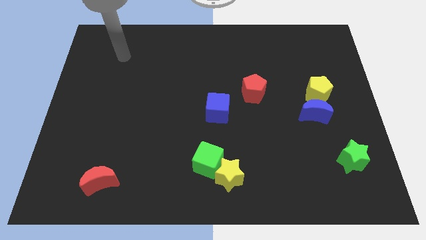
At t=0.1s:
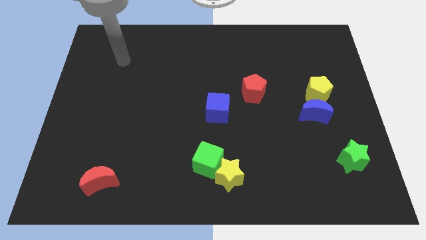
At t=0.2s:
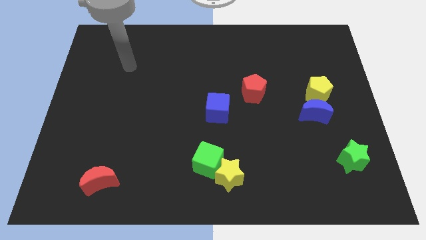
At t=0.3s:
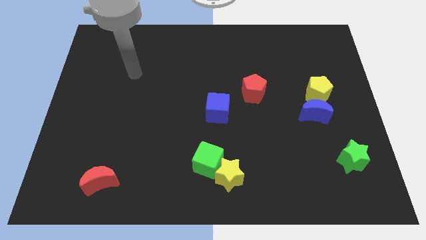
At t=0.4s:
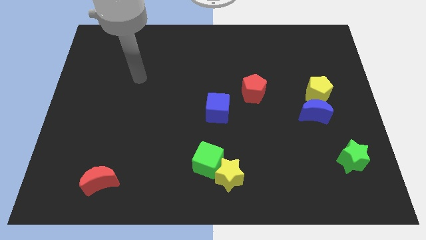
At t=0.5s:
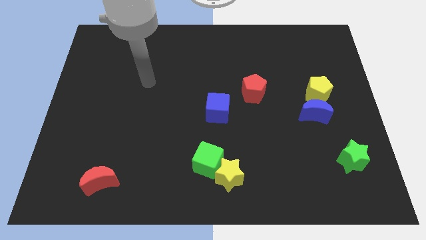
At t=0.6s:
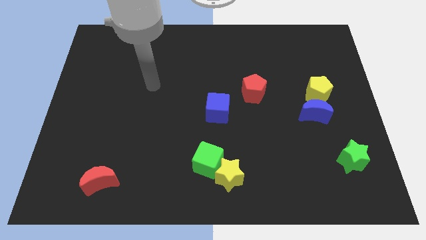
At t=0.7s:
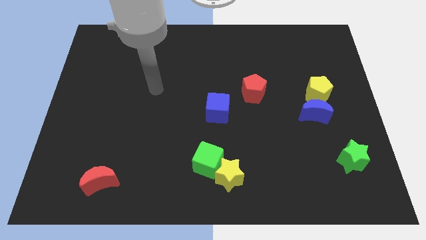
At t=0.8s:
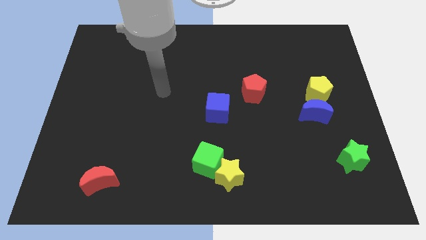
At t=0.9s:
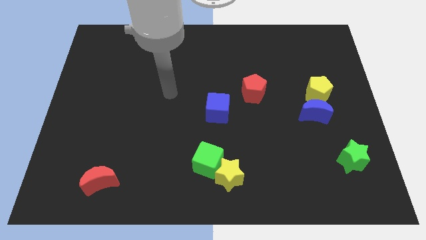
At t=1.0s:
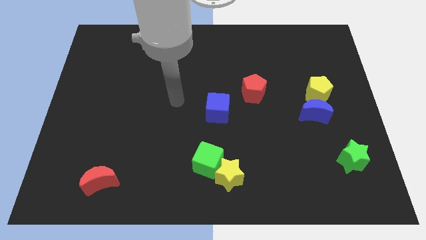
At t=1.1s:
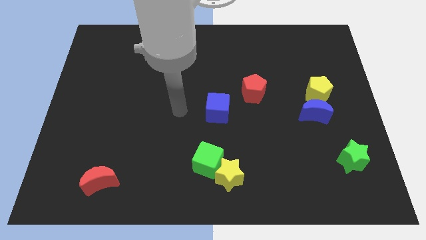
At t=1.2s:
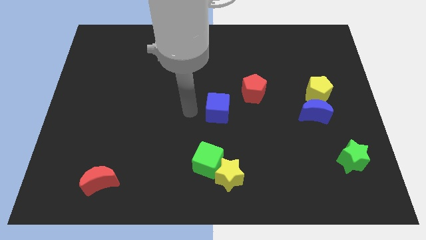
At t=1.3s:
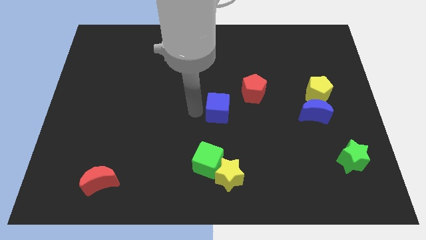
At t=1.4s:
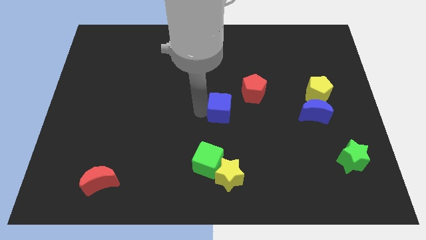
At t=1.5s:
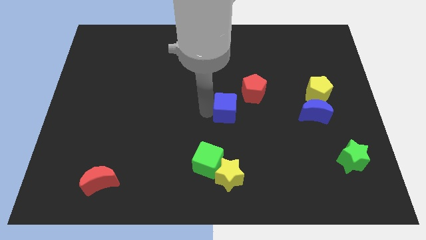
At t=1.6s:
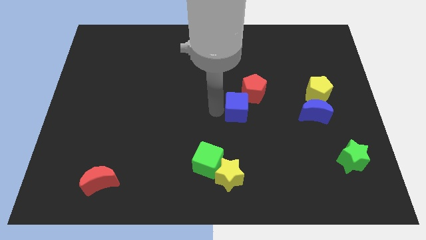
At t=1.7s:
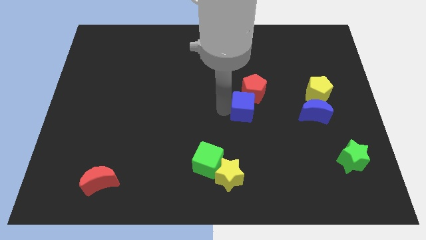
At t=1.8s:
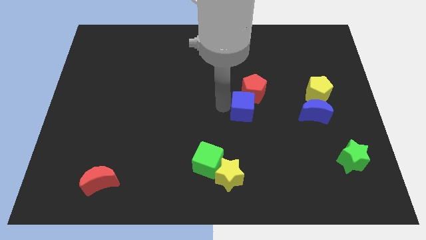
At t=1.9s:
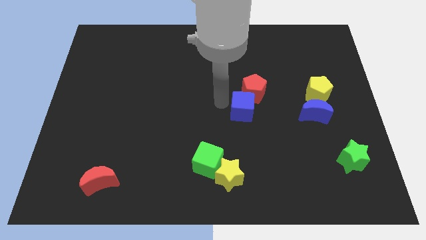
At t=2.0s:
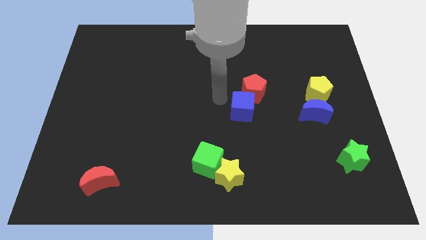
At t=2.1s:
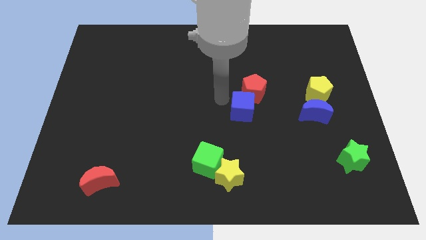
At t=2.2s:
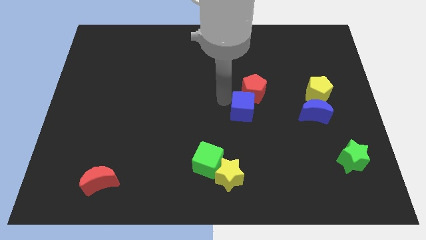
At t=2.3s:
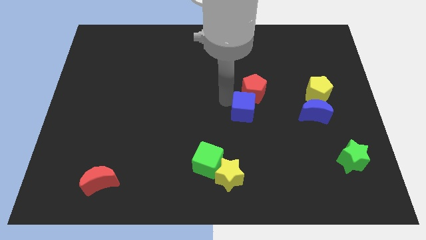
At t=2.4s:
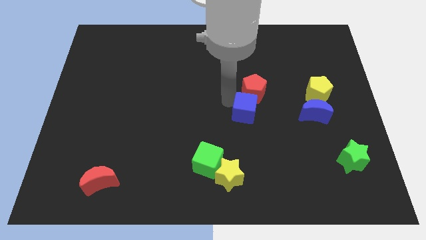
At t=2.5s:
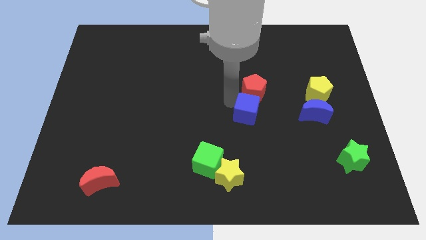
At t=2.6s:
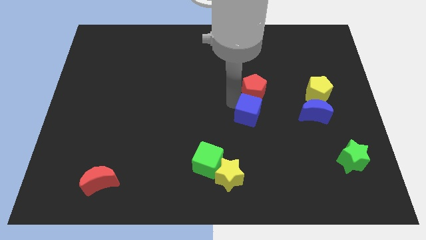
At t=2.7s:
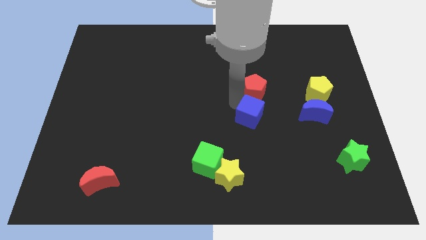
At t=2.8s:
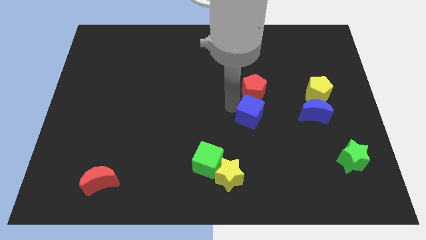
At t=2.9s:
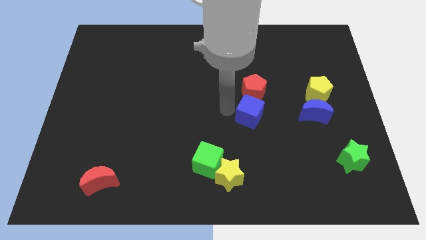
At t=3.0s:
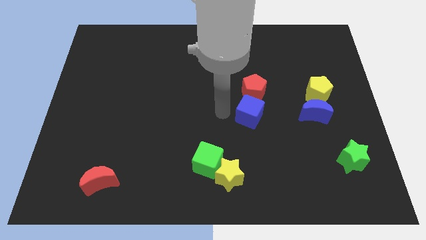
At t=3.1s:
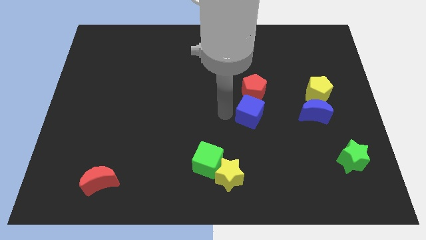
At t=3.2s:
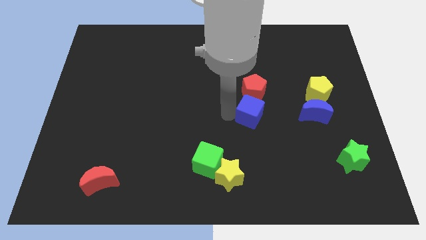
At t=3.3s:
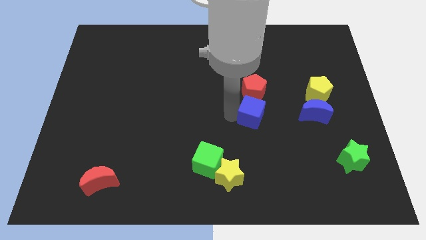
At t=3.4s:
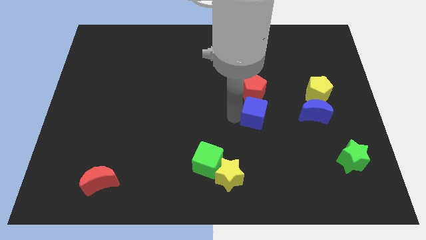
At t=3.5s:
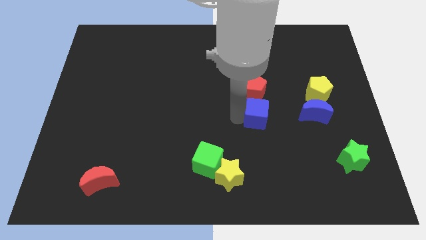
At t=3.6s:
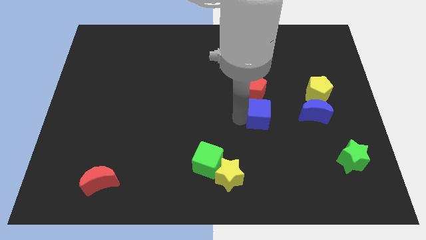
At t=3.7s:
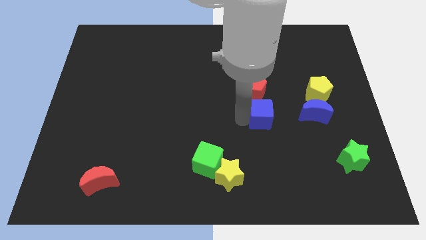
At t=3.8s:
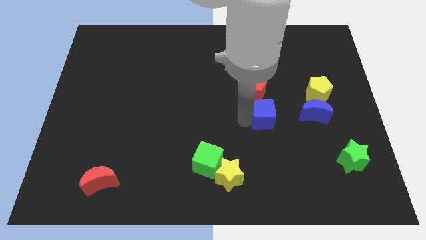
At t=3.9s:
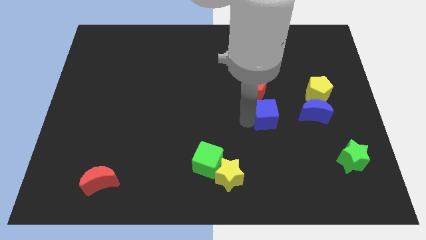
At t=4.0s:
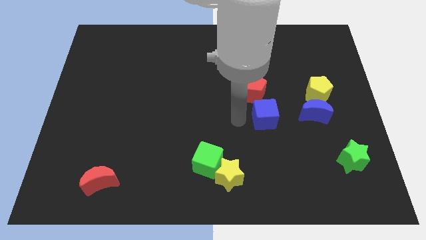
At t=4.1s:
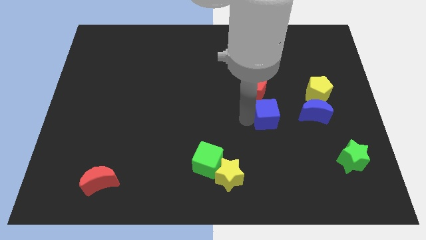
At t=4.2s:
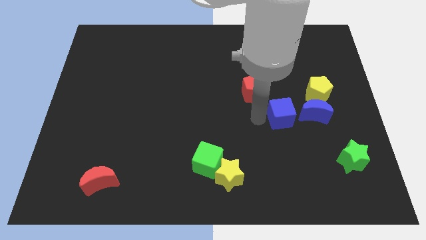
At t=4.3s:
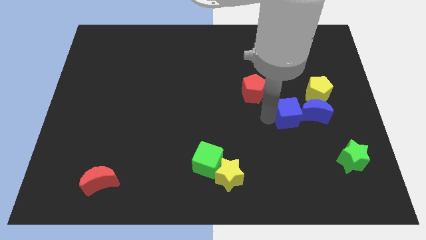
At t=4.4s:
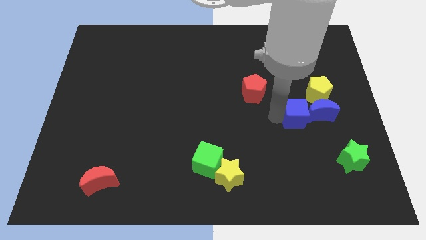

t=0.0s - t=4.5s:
put the blue cube close to the blue moon

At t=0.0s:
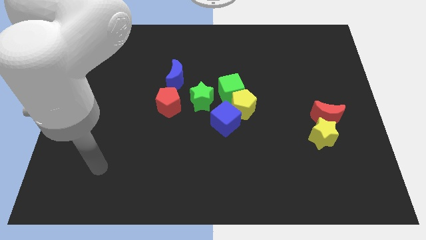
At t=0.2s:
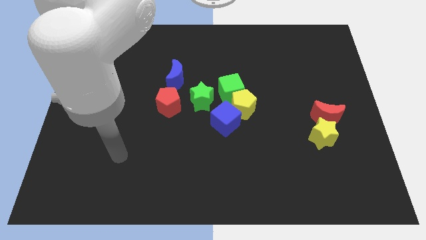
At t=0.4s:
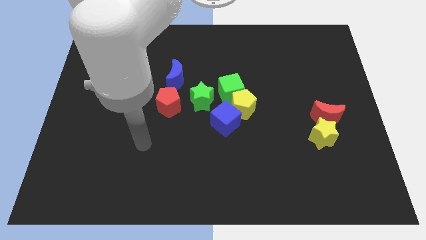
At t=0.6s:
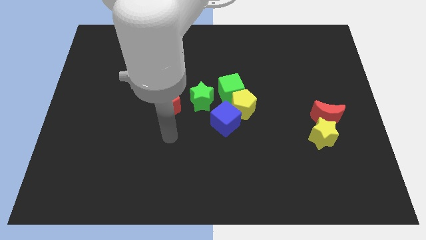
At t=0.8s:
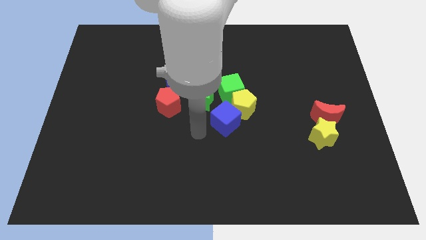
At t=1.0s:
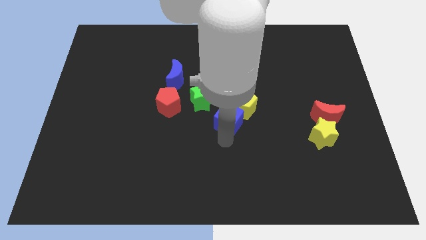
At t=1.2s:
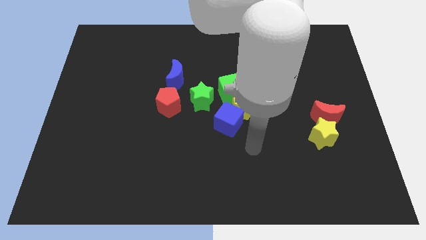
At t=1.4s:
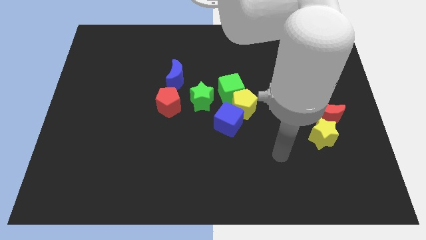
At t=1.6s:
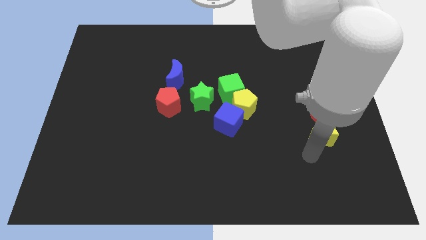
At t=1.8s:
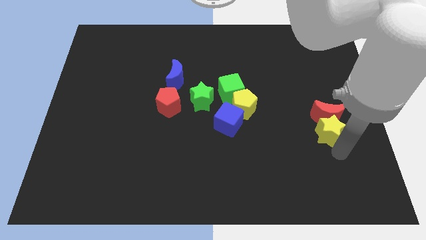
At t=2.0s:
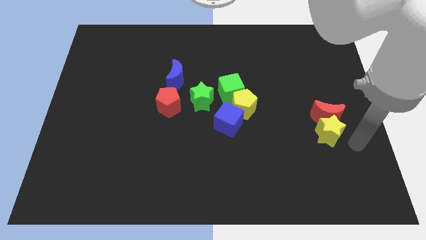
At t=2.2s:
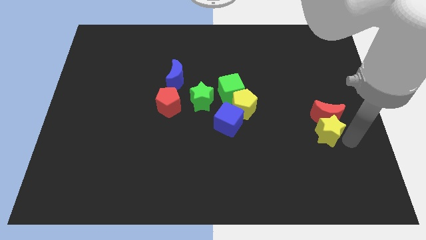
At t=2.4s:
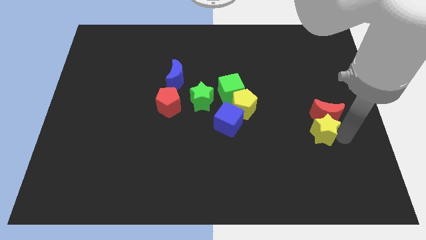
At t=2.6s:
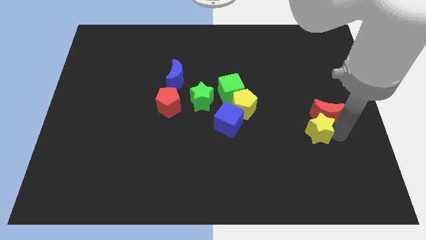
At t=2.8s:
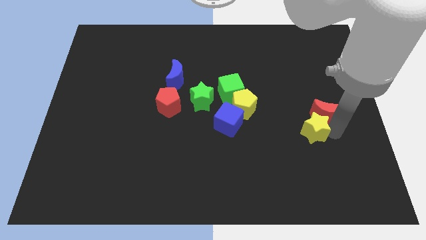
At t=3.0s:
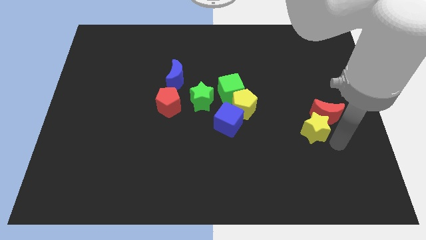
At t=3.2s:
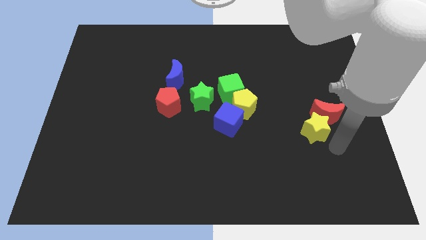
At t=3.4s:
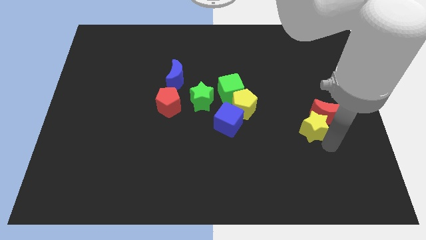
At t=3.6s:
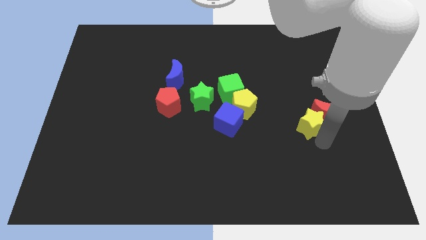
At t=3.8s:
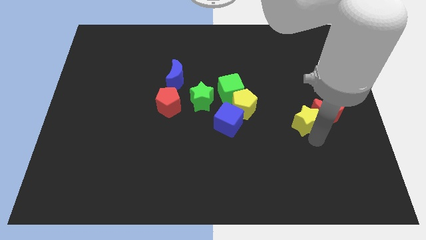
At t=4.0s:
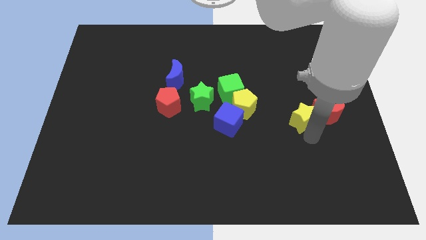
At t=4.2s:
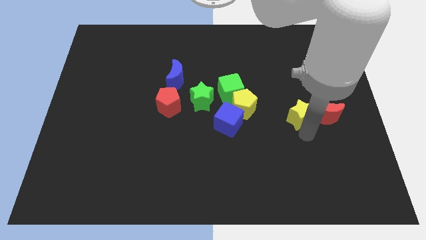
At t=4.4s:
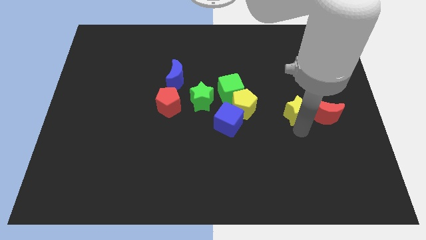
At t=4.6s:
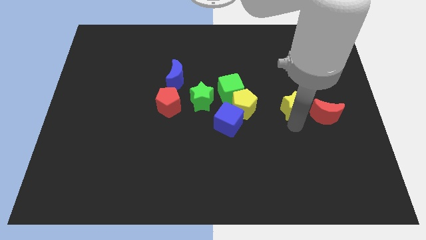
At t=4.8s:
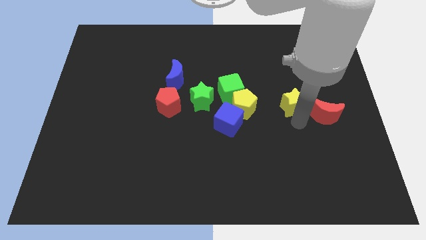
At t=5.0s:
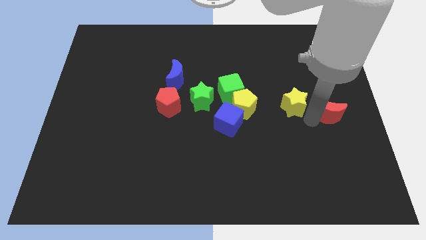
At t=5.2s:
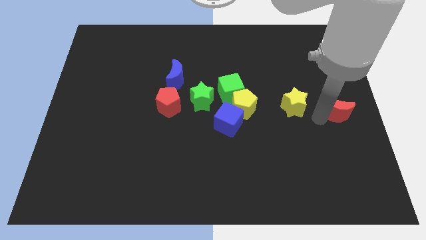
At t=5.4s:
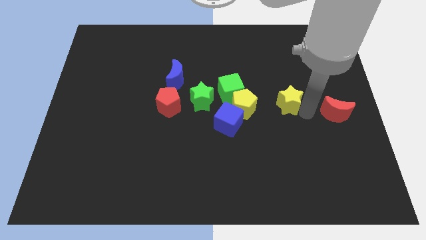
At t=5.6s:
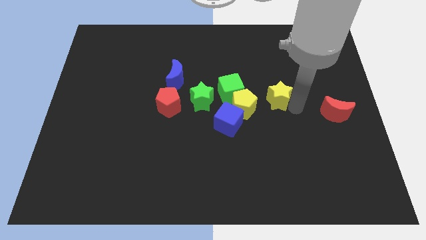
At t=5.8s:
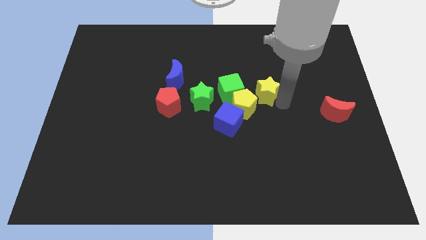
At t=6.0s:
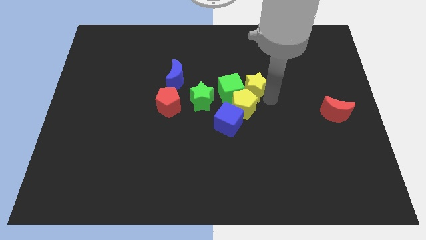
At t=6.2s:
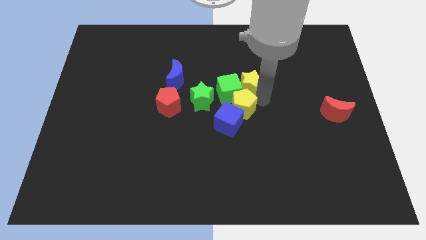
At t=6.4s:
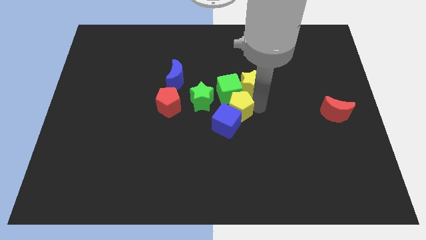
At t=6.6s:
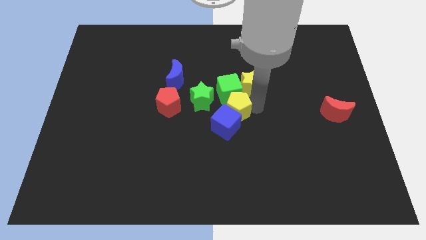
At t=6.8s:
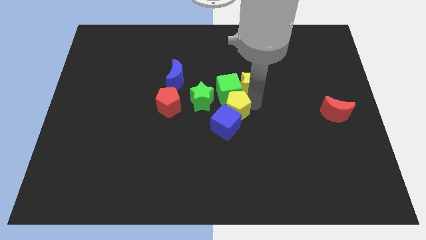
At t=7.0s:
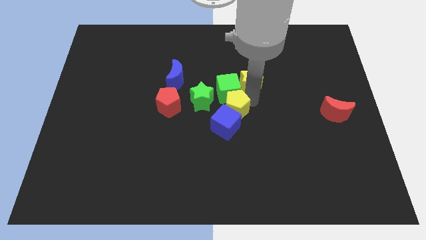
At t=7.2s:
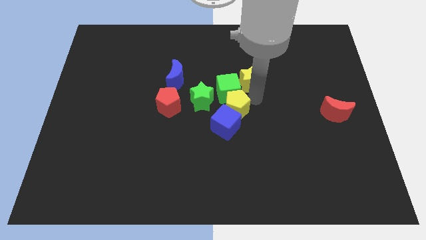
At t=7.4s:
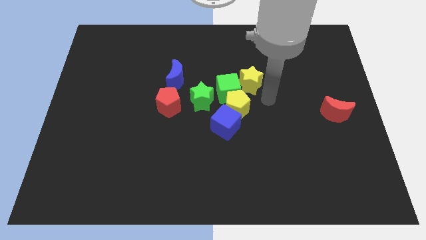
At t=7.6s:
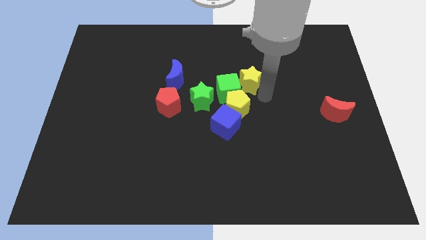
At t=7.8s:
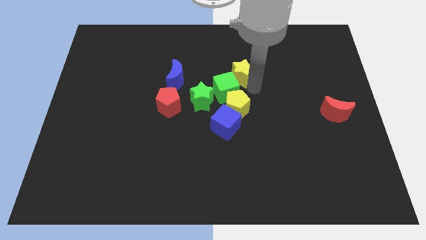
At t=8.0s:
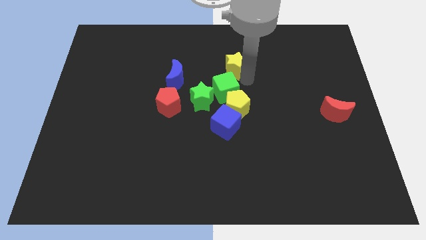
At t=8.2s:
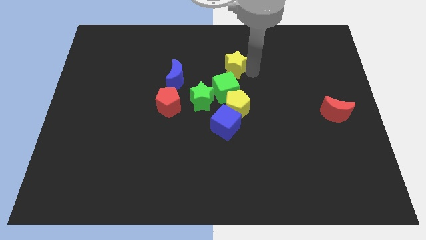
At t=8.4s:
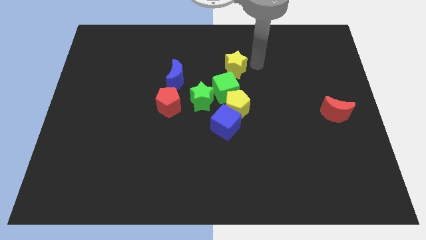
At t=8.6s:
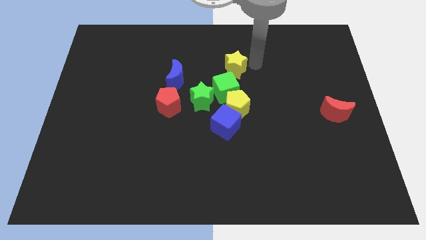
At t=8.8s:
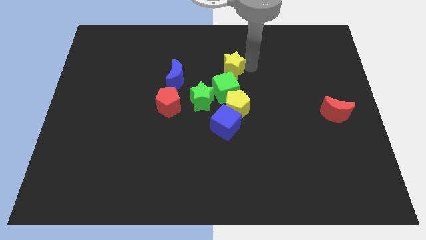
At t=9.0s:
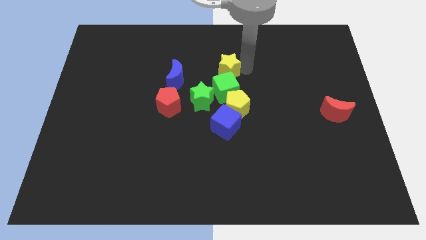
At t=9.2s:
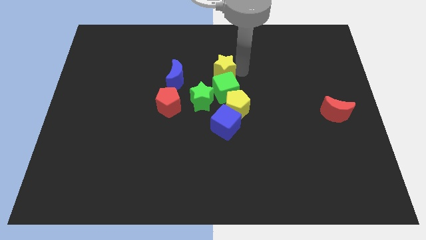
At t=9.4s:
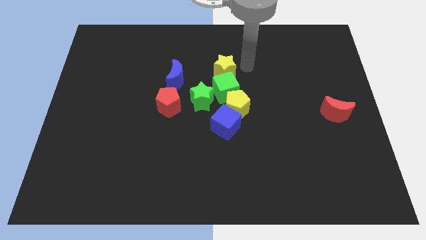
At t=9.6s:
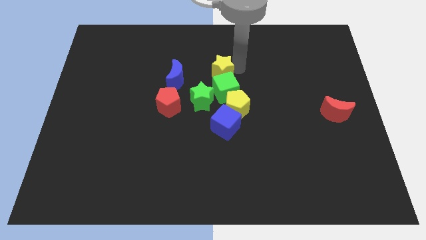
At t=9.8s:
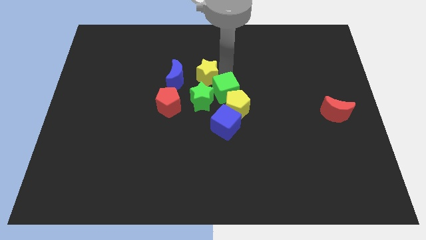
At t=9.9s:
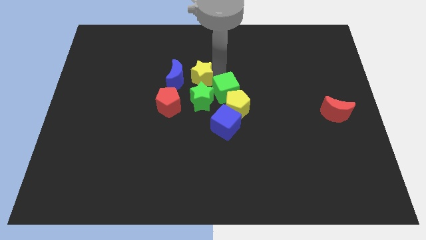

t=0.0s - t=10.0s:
put the yellow star next to the blue moon
